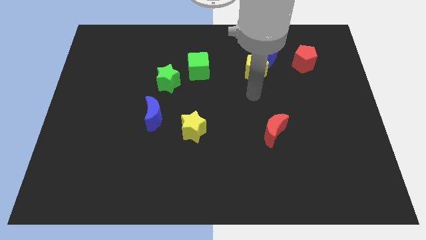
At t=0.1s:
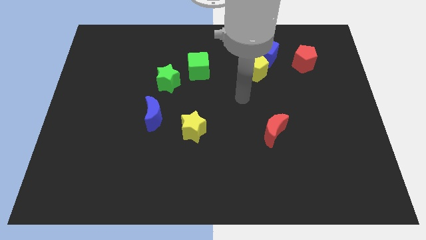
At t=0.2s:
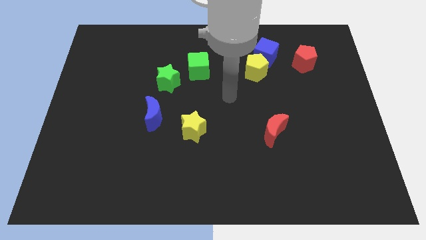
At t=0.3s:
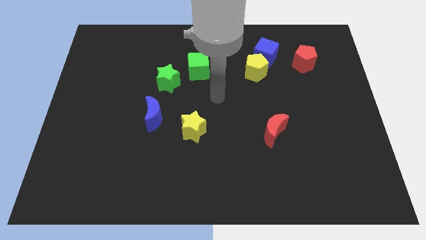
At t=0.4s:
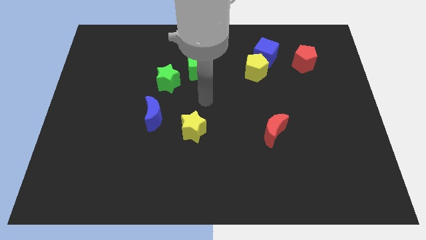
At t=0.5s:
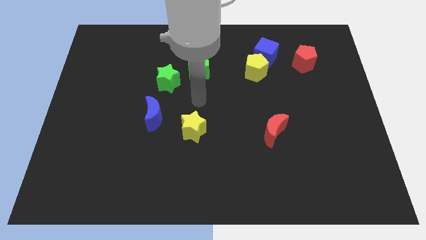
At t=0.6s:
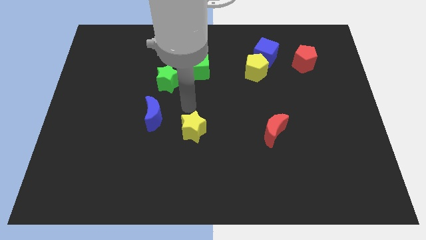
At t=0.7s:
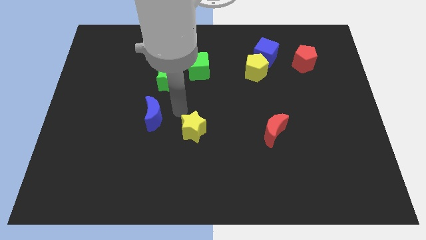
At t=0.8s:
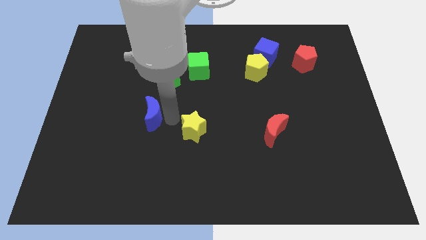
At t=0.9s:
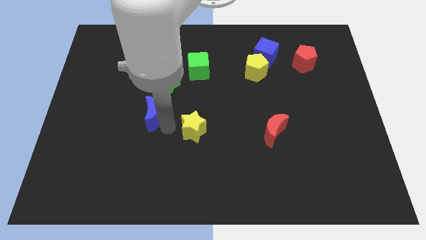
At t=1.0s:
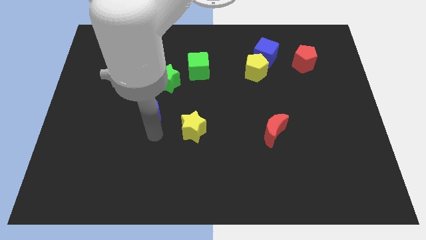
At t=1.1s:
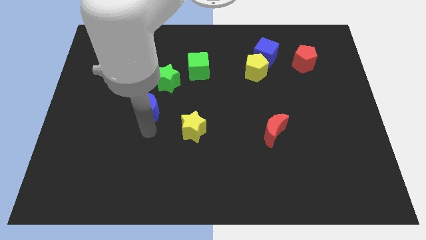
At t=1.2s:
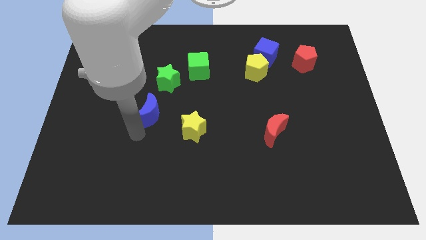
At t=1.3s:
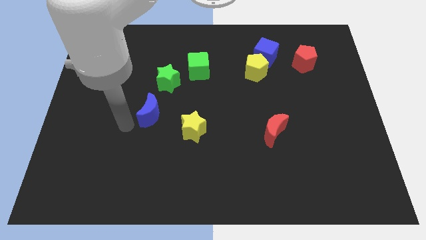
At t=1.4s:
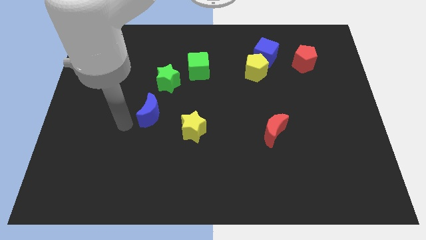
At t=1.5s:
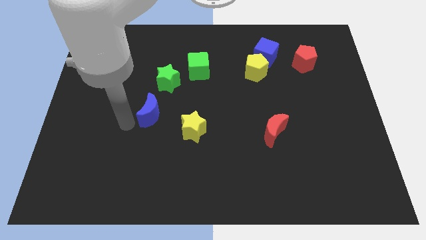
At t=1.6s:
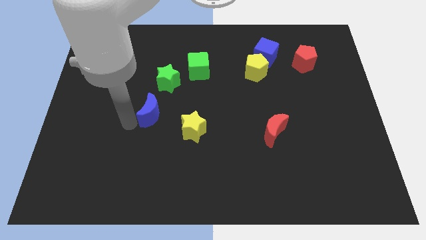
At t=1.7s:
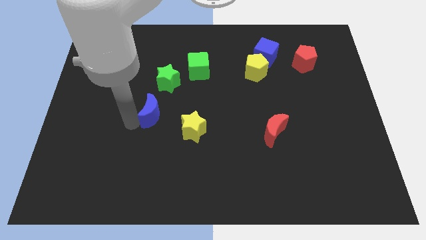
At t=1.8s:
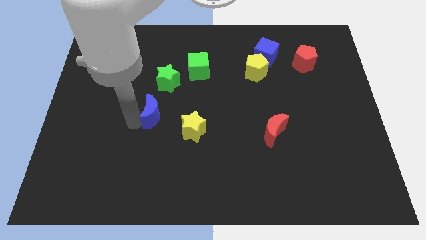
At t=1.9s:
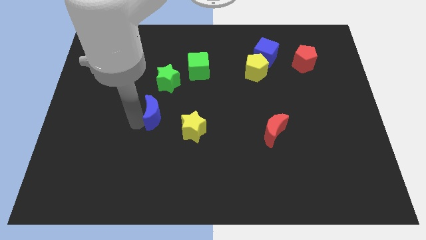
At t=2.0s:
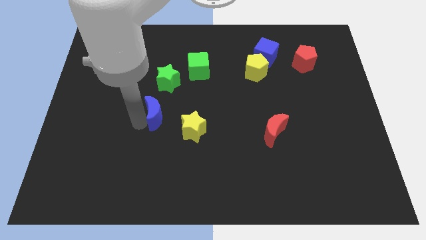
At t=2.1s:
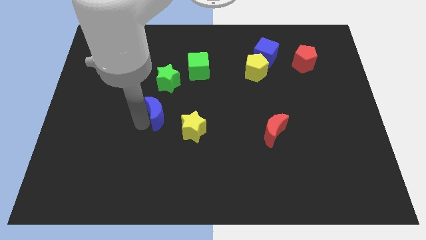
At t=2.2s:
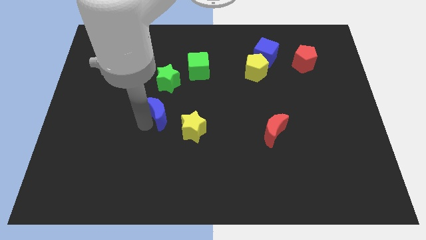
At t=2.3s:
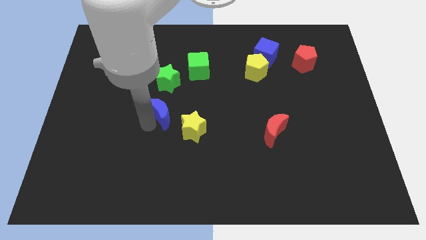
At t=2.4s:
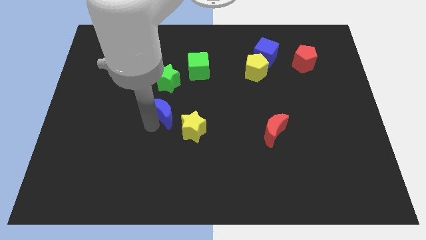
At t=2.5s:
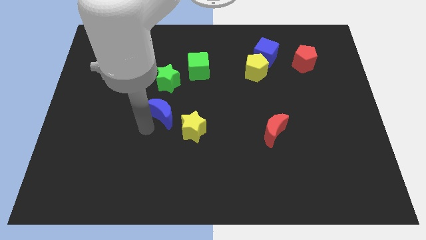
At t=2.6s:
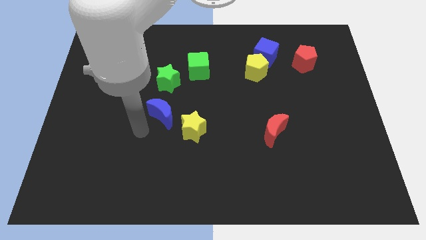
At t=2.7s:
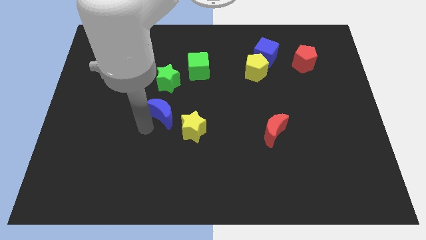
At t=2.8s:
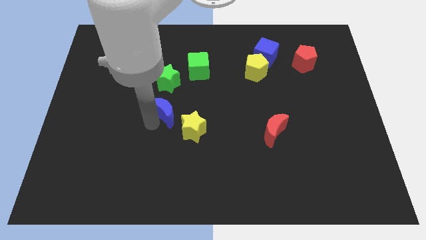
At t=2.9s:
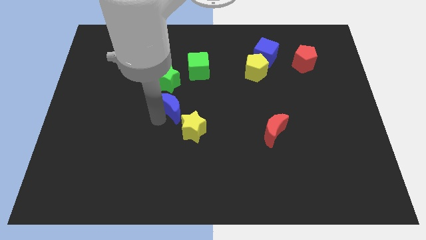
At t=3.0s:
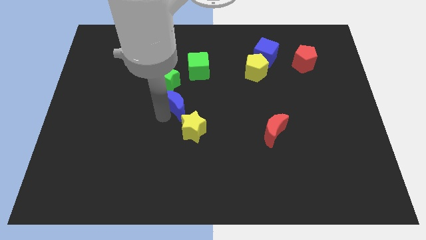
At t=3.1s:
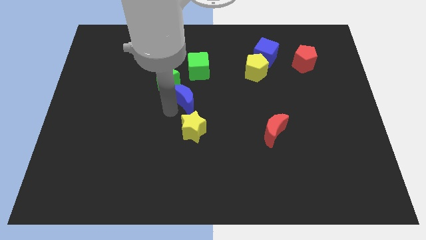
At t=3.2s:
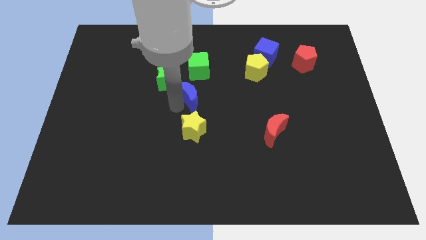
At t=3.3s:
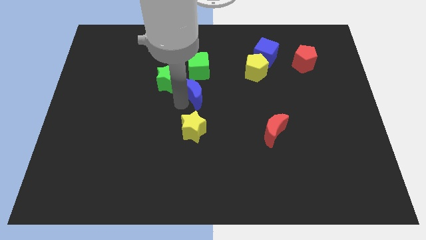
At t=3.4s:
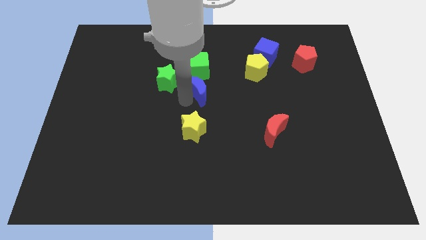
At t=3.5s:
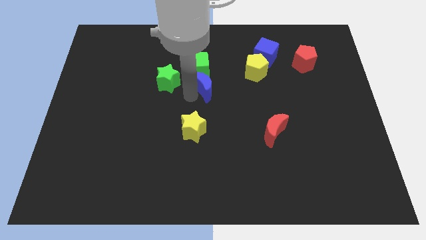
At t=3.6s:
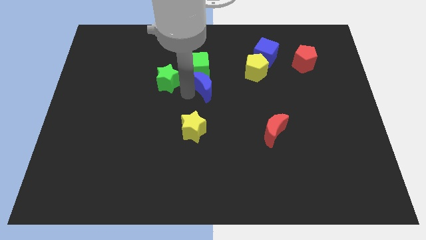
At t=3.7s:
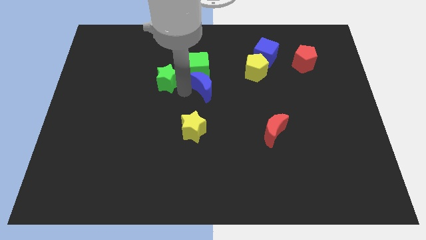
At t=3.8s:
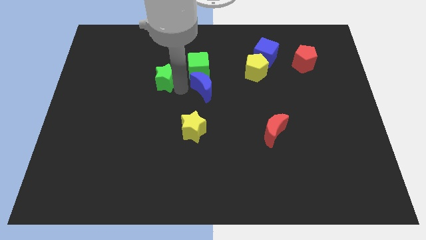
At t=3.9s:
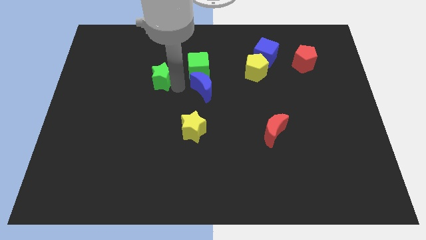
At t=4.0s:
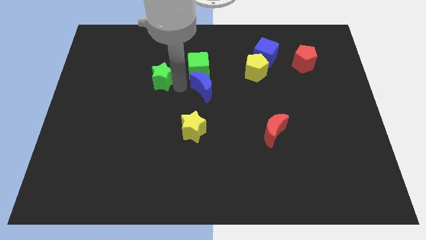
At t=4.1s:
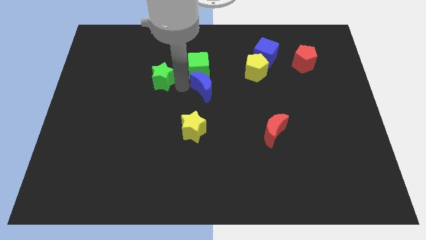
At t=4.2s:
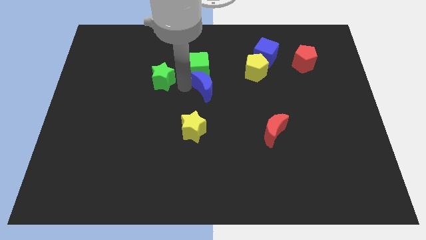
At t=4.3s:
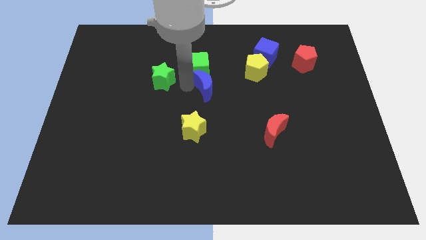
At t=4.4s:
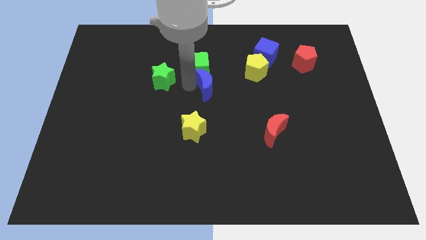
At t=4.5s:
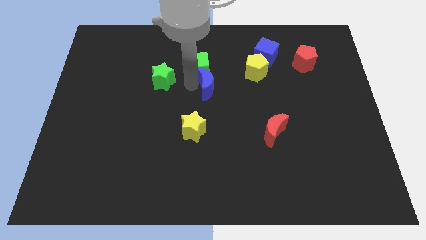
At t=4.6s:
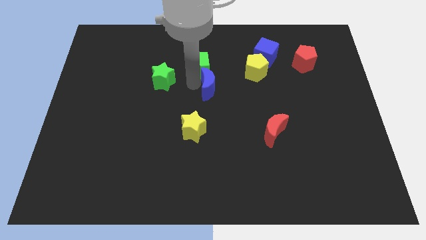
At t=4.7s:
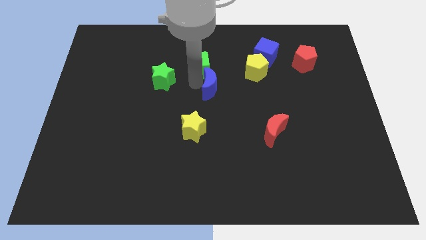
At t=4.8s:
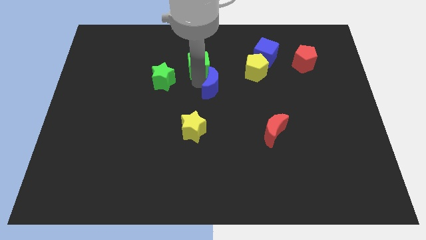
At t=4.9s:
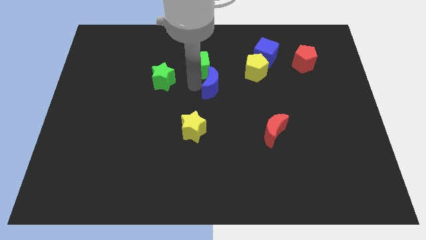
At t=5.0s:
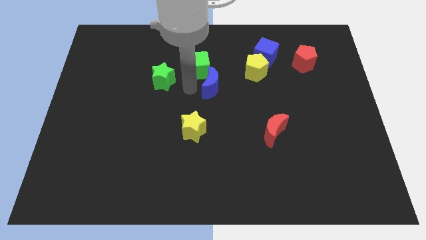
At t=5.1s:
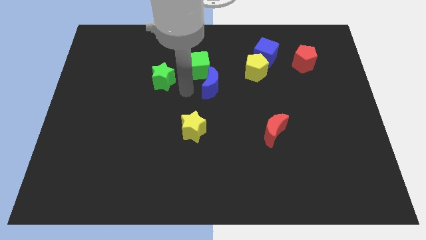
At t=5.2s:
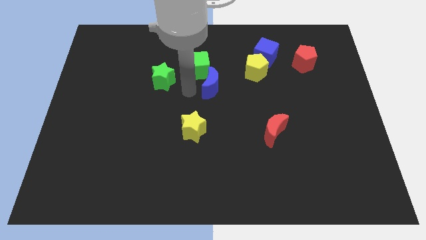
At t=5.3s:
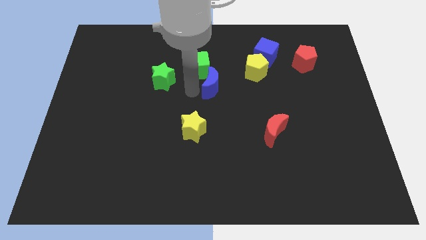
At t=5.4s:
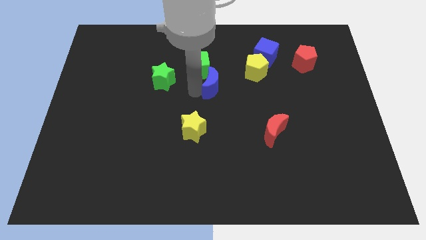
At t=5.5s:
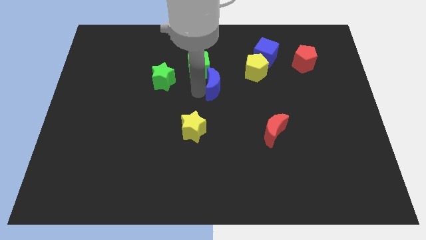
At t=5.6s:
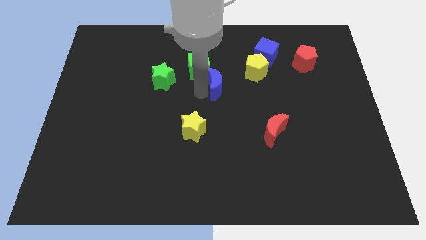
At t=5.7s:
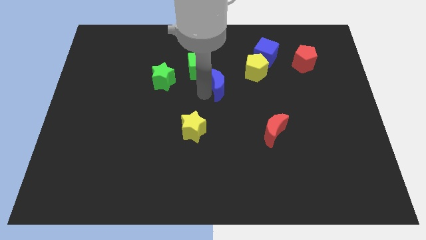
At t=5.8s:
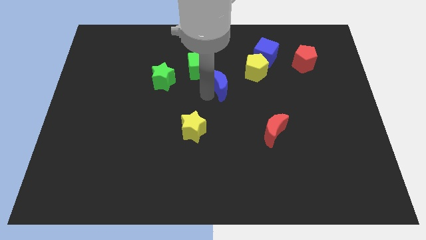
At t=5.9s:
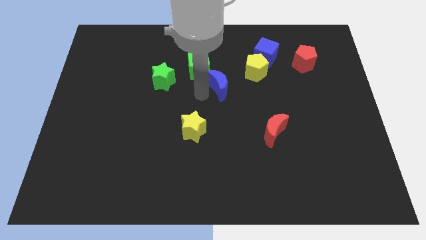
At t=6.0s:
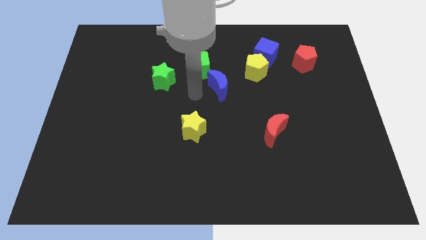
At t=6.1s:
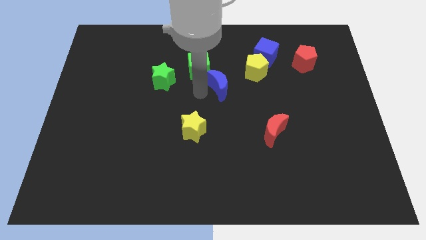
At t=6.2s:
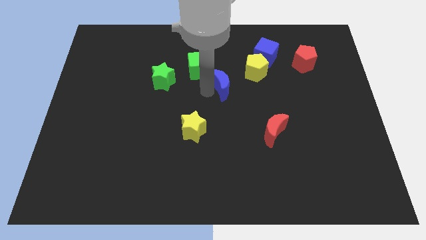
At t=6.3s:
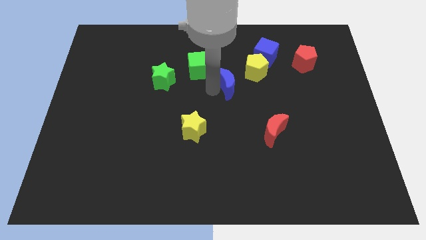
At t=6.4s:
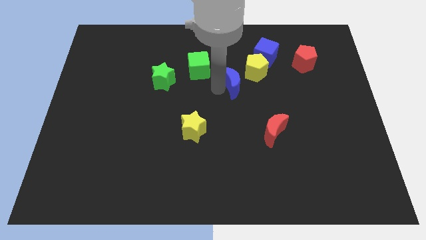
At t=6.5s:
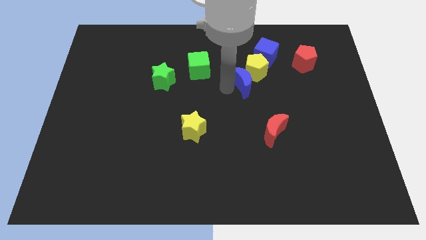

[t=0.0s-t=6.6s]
put the blue moon towards the yellow pentagon

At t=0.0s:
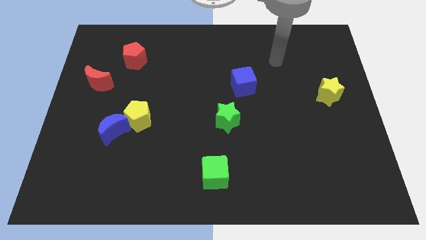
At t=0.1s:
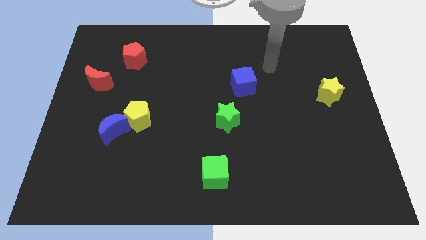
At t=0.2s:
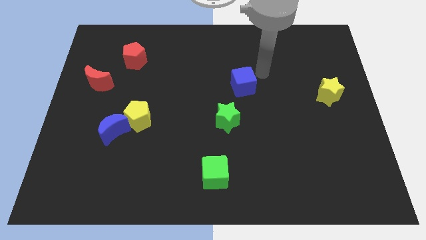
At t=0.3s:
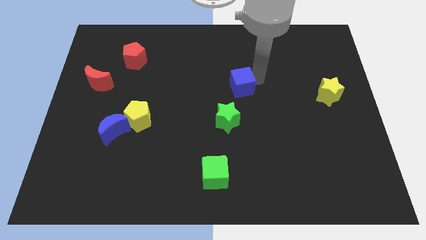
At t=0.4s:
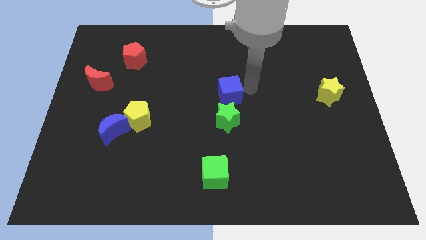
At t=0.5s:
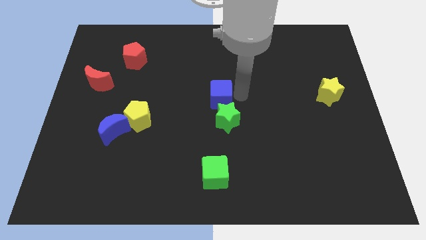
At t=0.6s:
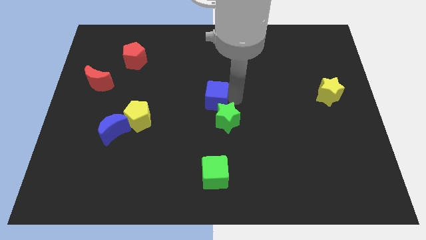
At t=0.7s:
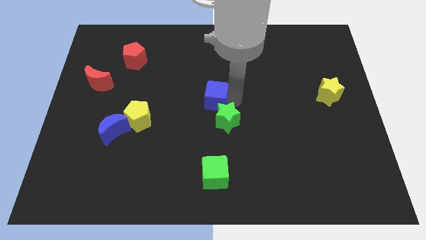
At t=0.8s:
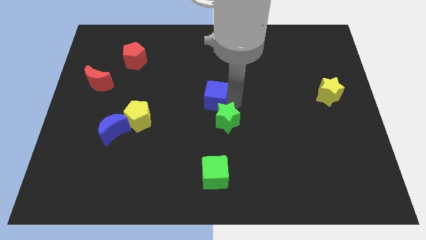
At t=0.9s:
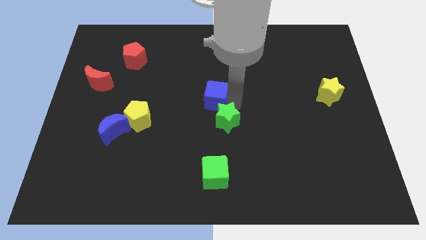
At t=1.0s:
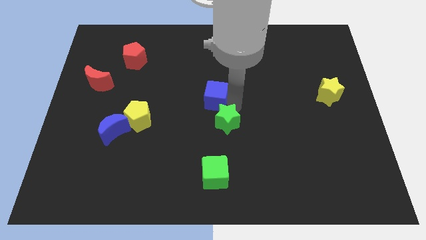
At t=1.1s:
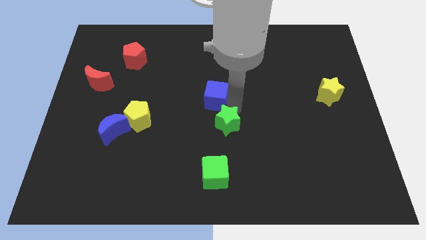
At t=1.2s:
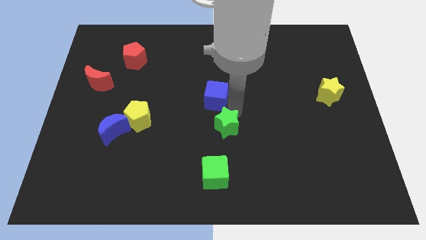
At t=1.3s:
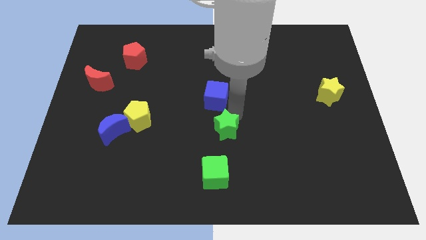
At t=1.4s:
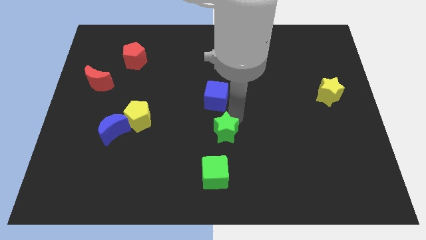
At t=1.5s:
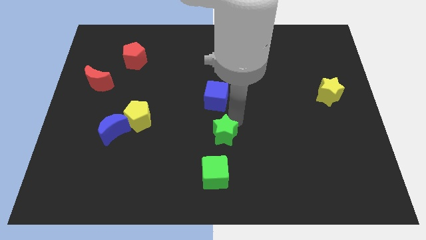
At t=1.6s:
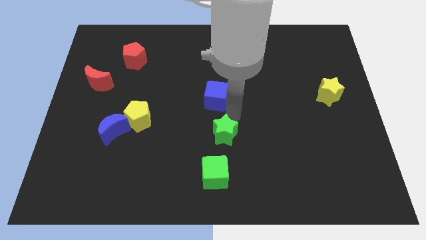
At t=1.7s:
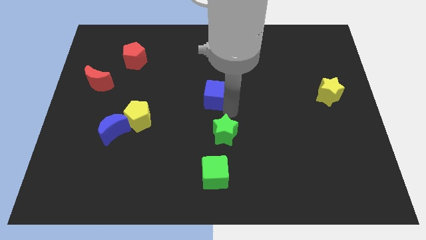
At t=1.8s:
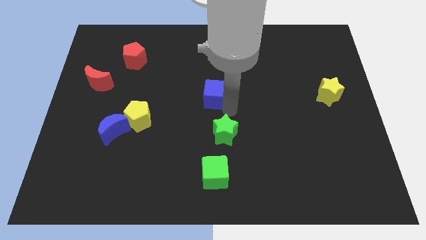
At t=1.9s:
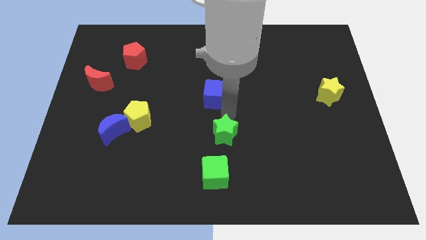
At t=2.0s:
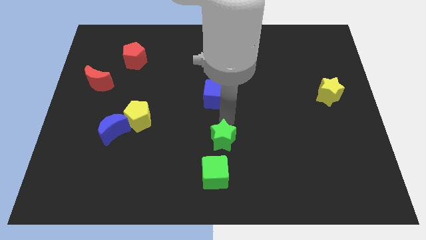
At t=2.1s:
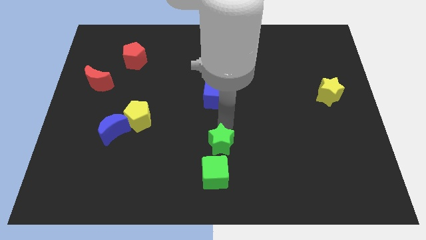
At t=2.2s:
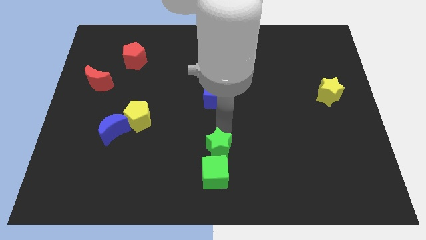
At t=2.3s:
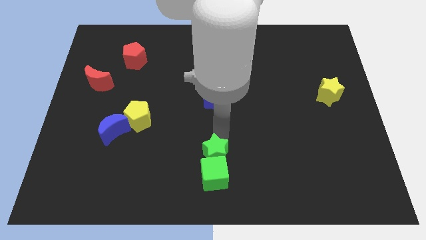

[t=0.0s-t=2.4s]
move the green star next to the green cube
